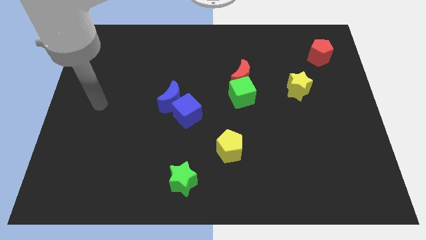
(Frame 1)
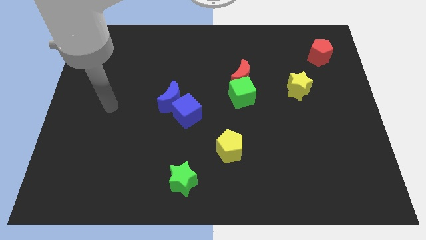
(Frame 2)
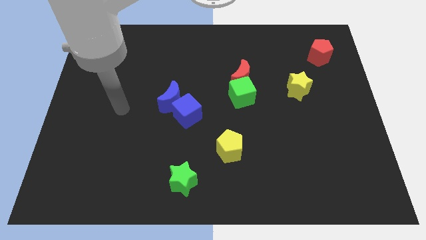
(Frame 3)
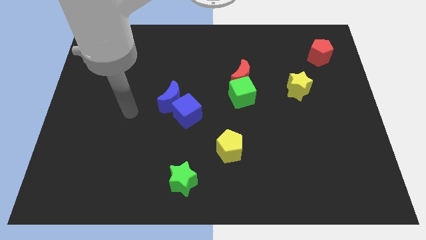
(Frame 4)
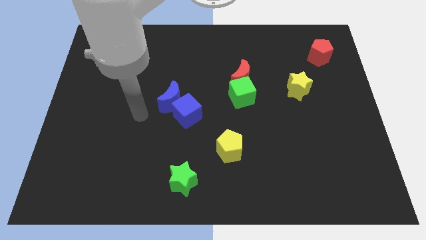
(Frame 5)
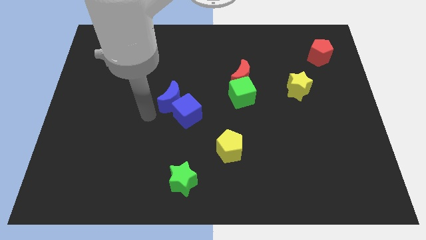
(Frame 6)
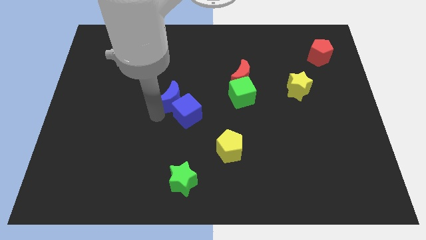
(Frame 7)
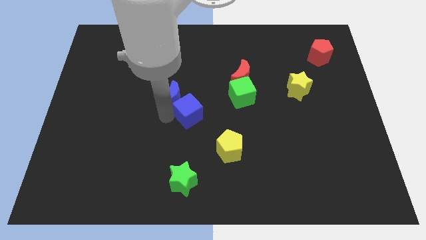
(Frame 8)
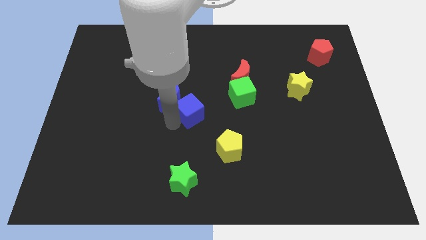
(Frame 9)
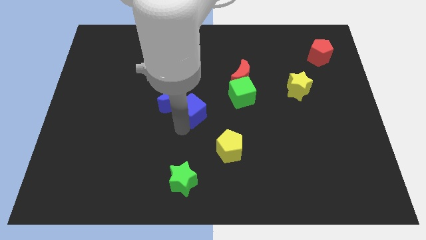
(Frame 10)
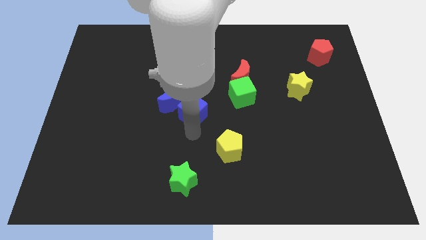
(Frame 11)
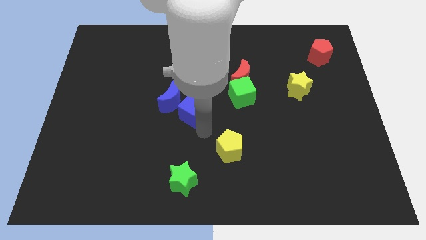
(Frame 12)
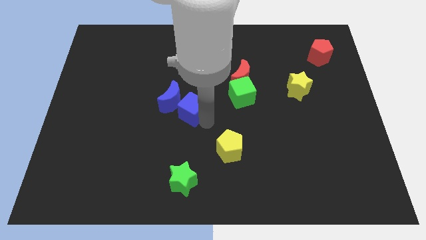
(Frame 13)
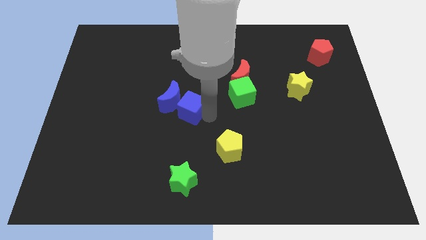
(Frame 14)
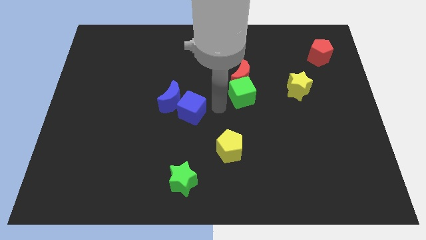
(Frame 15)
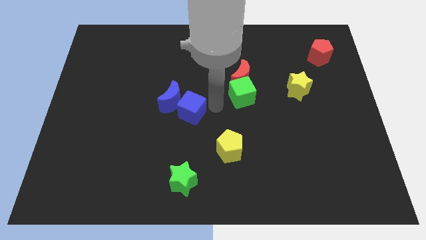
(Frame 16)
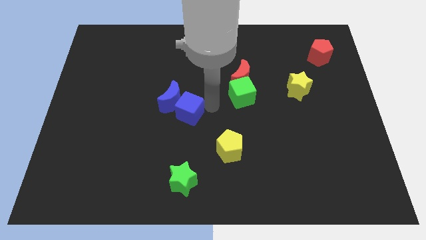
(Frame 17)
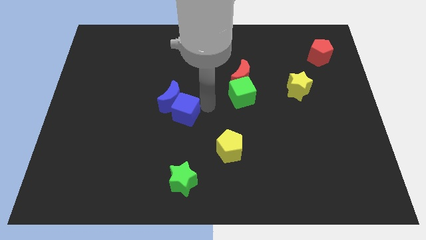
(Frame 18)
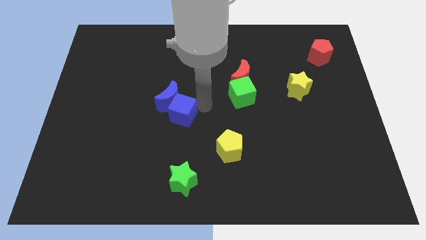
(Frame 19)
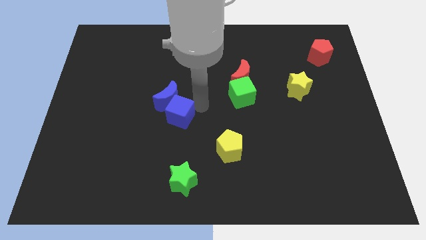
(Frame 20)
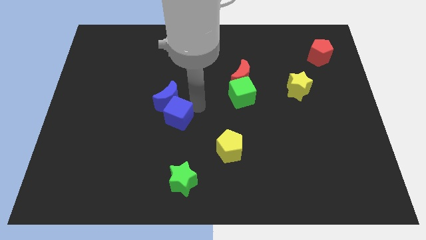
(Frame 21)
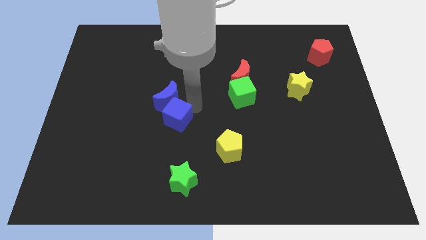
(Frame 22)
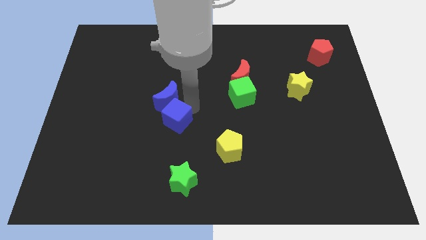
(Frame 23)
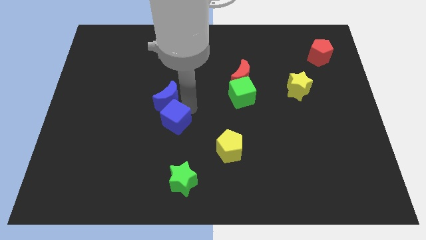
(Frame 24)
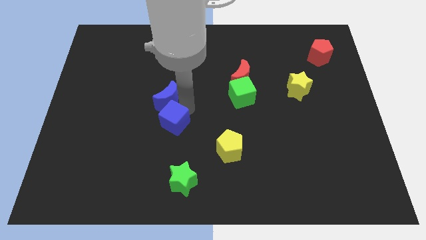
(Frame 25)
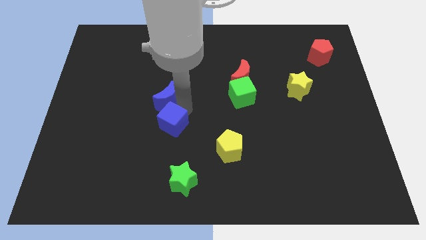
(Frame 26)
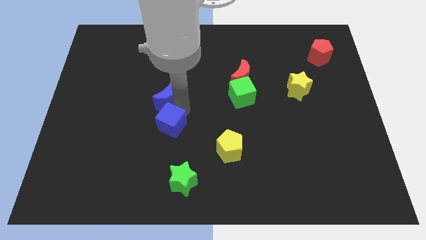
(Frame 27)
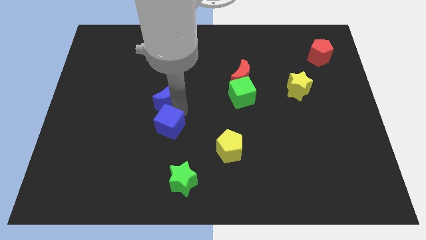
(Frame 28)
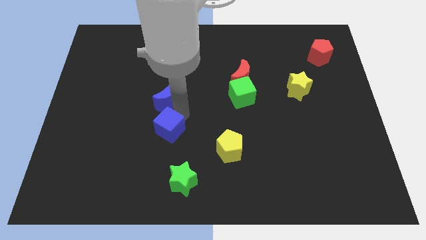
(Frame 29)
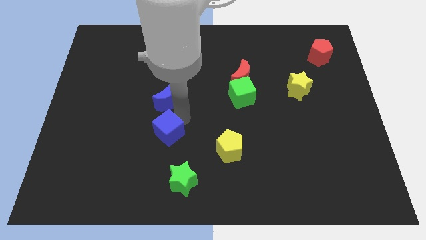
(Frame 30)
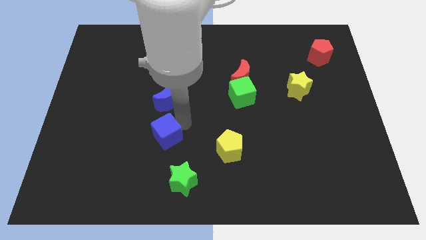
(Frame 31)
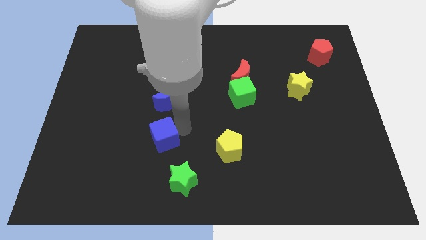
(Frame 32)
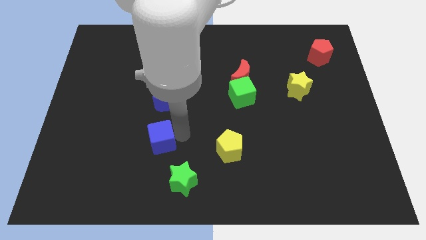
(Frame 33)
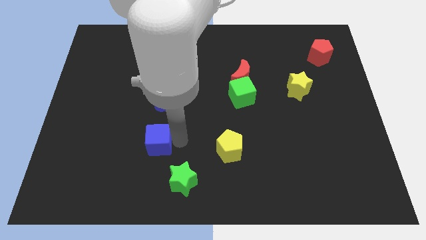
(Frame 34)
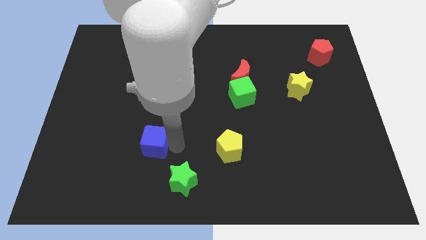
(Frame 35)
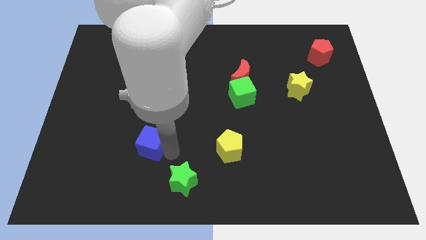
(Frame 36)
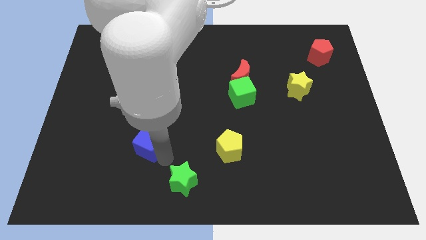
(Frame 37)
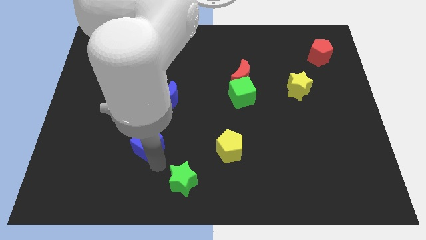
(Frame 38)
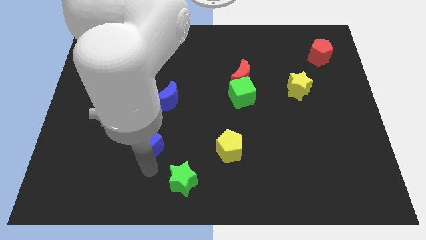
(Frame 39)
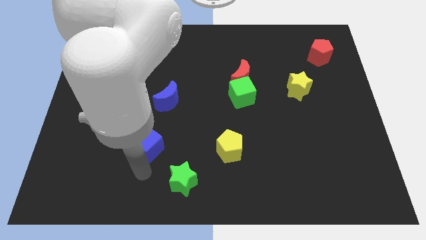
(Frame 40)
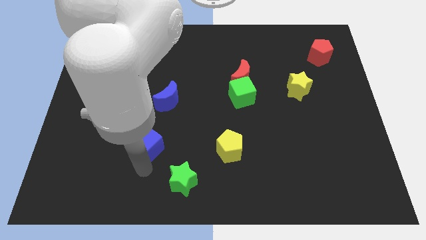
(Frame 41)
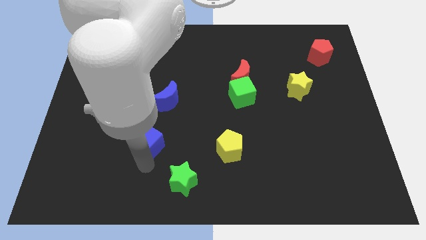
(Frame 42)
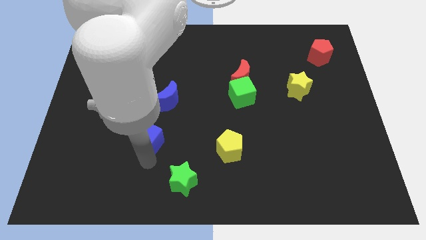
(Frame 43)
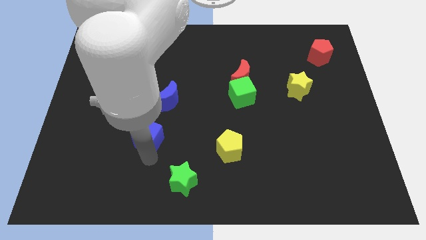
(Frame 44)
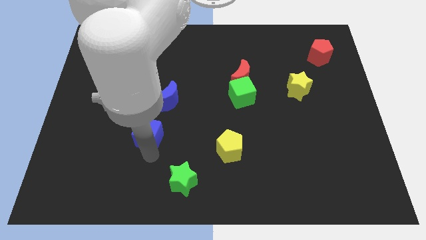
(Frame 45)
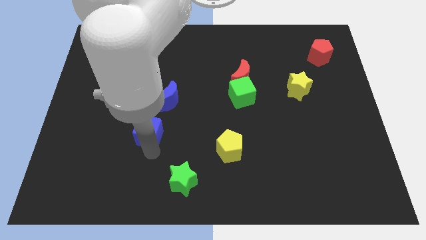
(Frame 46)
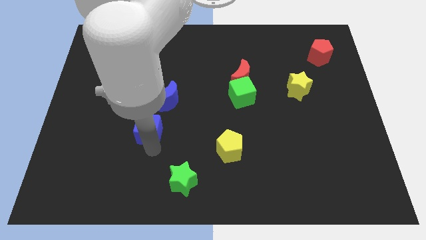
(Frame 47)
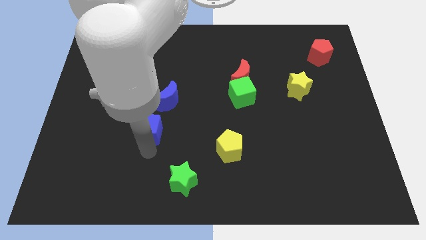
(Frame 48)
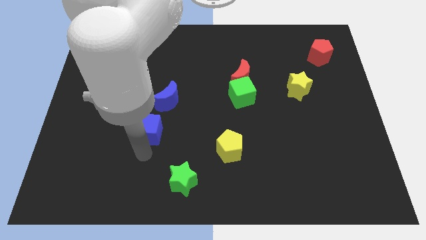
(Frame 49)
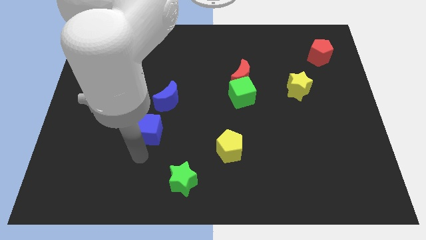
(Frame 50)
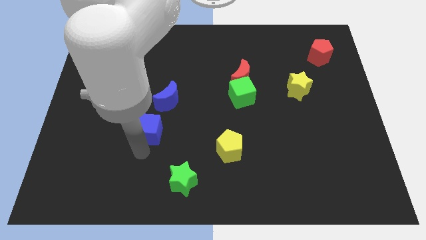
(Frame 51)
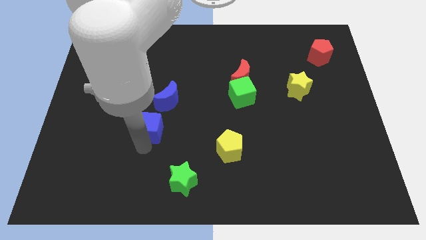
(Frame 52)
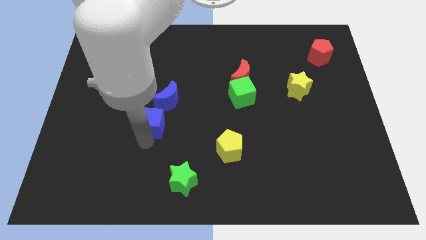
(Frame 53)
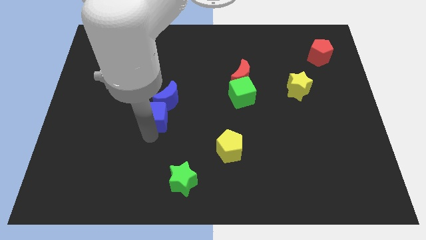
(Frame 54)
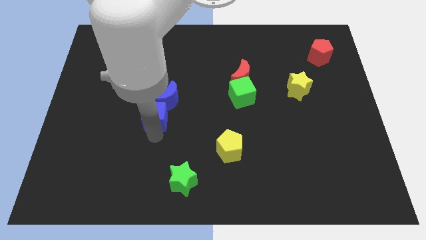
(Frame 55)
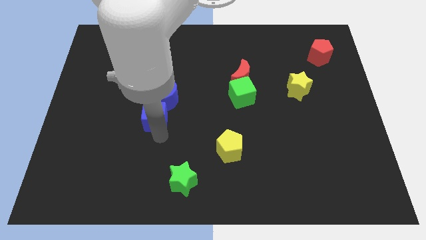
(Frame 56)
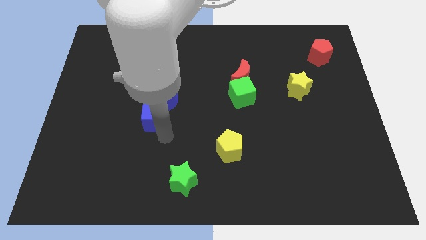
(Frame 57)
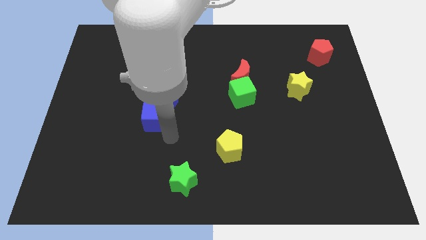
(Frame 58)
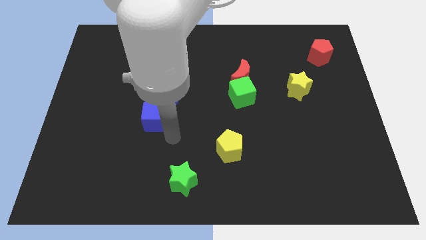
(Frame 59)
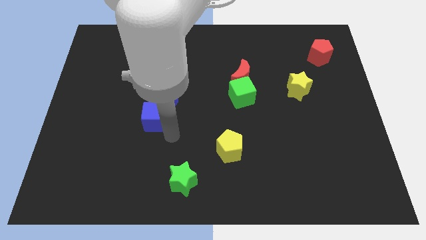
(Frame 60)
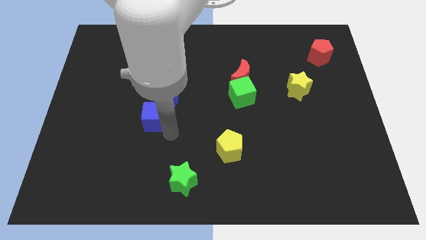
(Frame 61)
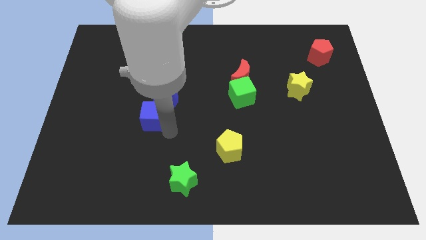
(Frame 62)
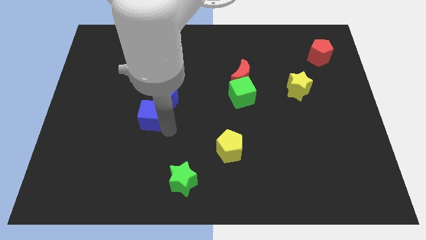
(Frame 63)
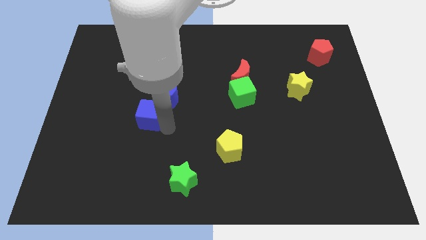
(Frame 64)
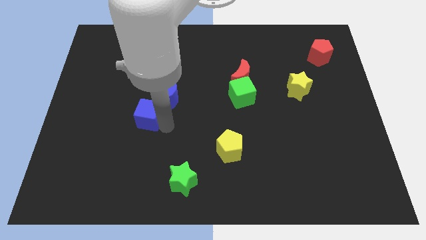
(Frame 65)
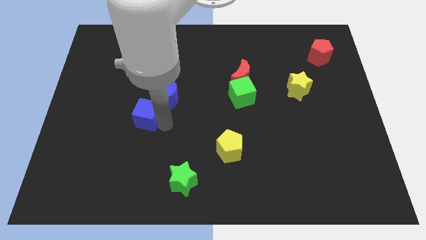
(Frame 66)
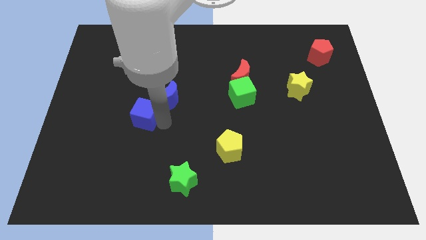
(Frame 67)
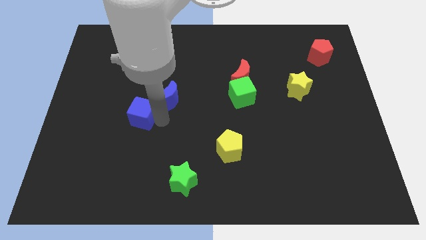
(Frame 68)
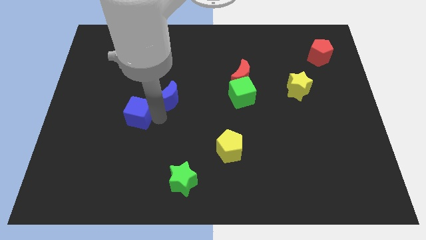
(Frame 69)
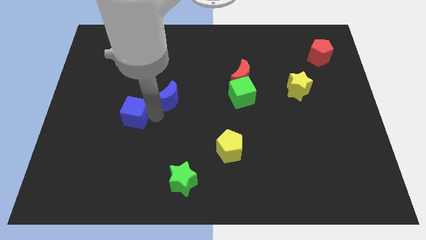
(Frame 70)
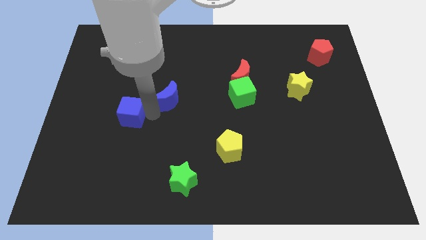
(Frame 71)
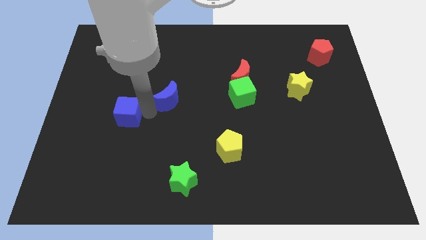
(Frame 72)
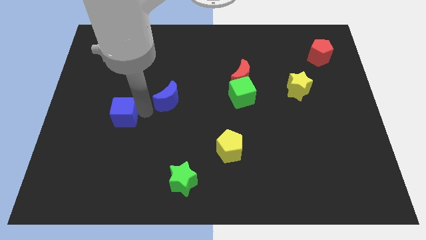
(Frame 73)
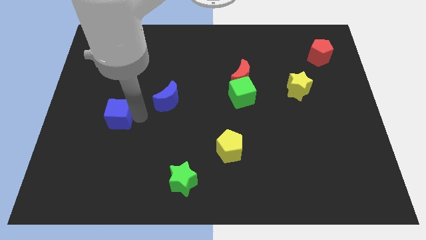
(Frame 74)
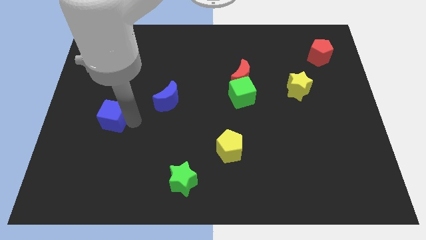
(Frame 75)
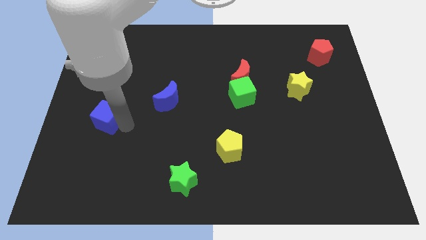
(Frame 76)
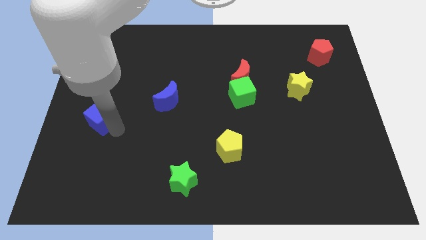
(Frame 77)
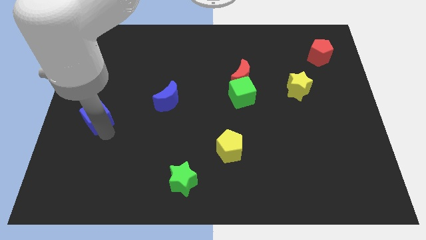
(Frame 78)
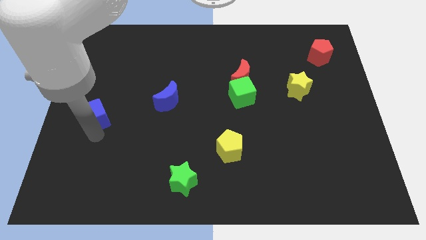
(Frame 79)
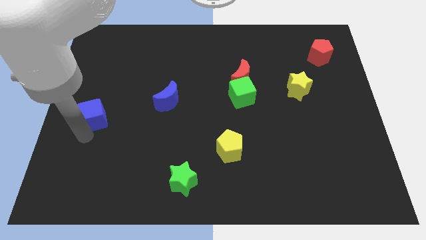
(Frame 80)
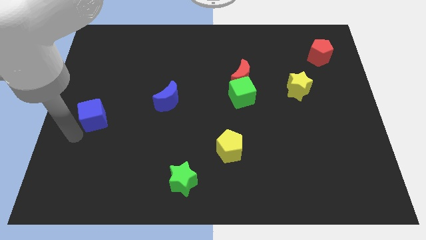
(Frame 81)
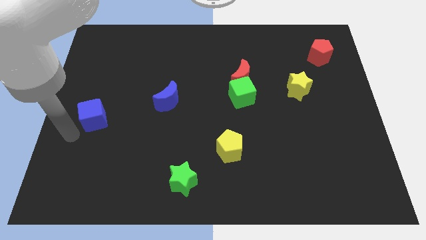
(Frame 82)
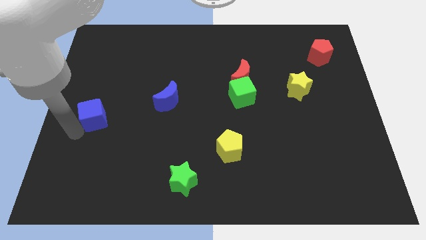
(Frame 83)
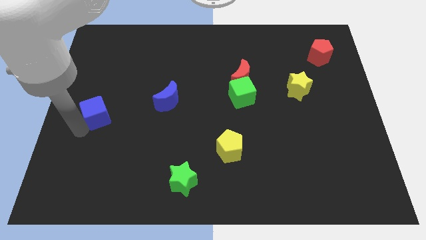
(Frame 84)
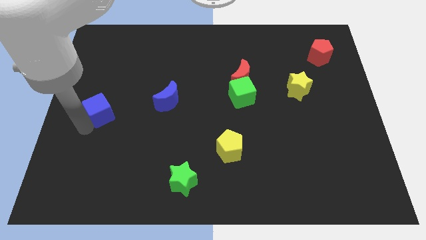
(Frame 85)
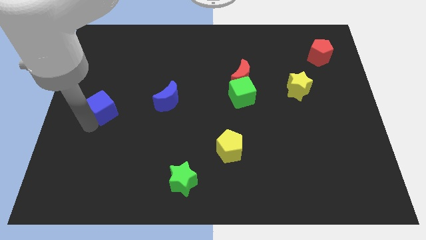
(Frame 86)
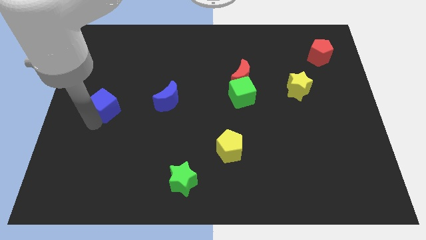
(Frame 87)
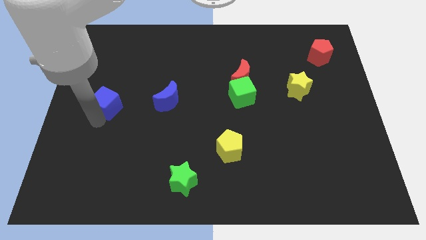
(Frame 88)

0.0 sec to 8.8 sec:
move the blue cube up and left diagonally somewhat
